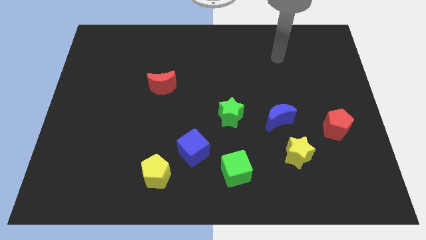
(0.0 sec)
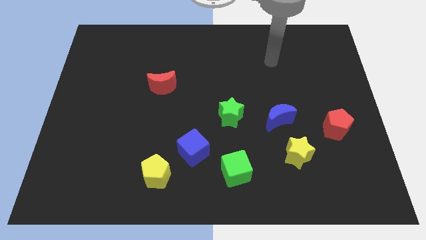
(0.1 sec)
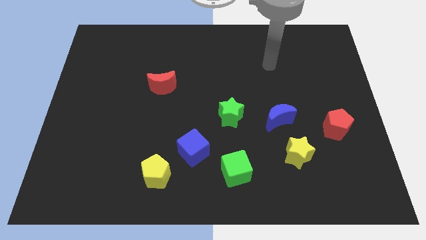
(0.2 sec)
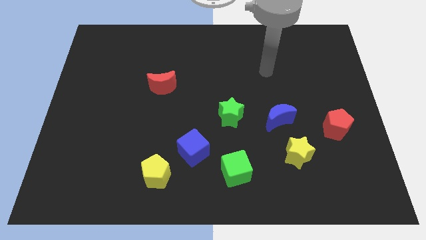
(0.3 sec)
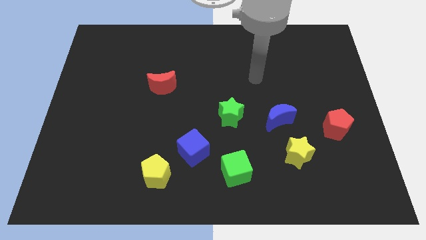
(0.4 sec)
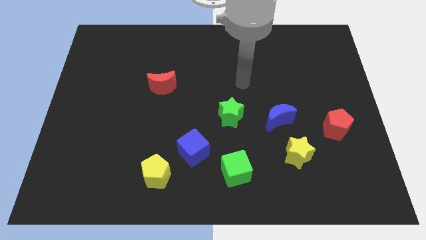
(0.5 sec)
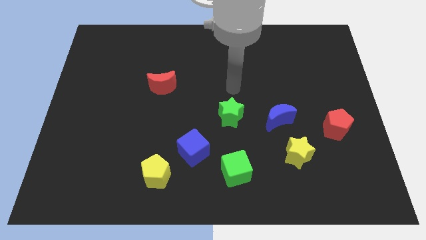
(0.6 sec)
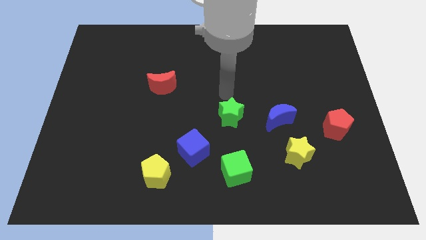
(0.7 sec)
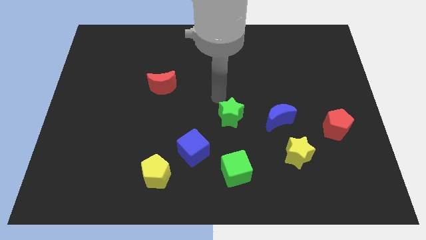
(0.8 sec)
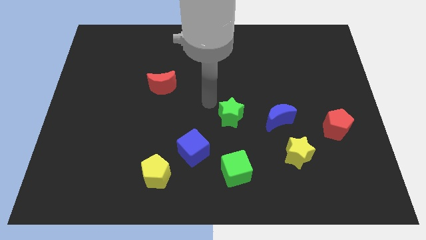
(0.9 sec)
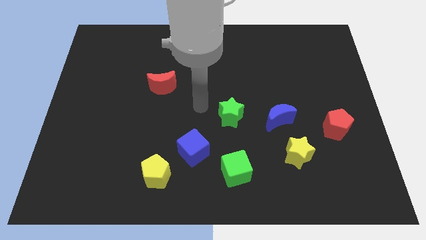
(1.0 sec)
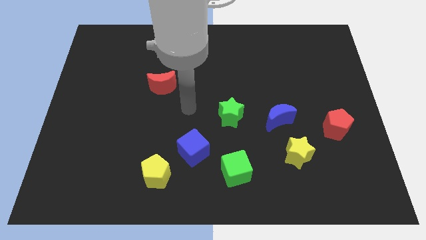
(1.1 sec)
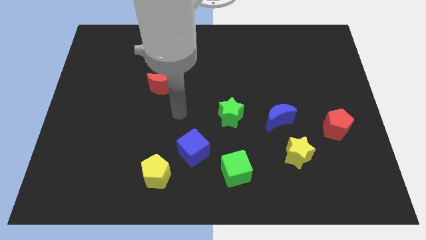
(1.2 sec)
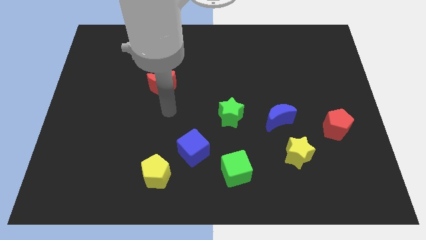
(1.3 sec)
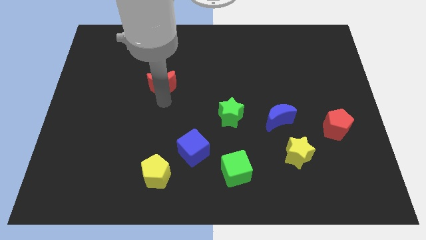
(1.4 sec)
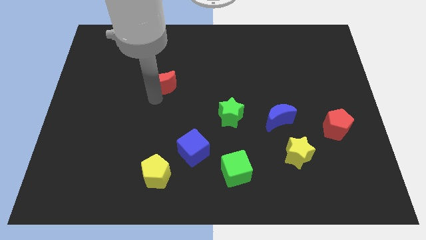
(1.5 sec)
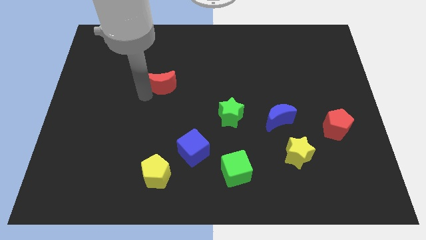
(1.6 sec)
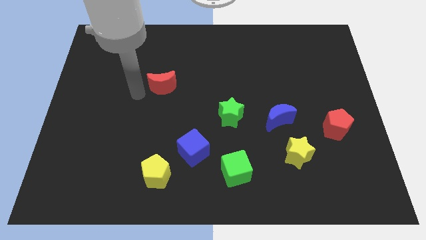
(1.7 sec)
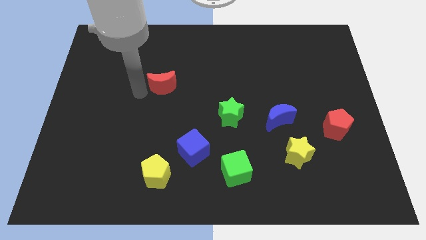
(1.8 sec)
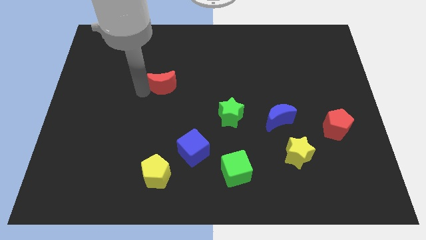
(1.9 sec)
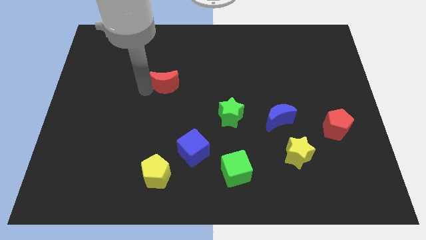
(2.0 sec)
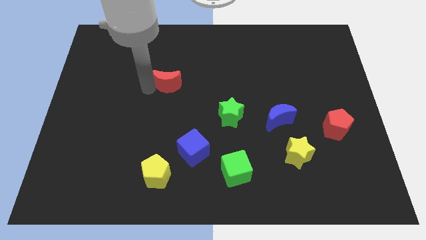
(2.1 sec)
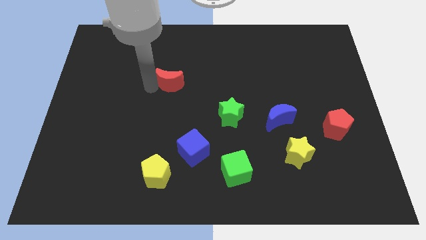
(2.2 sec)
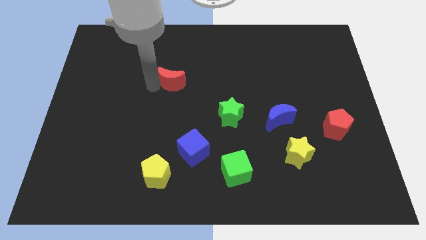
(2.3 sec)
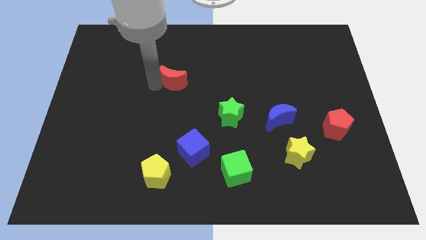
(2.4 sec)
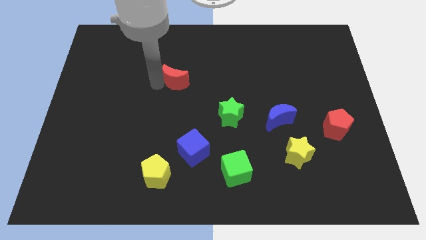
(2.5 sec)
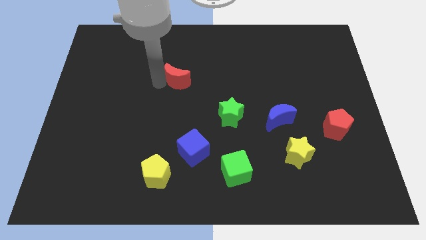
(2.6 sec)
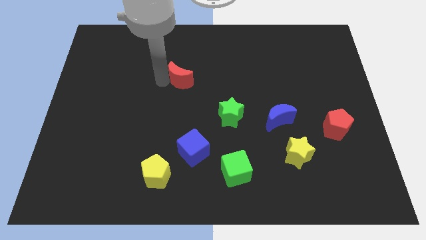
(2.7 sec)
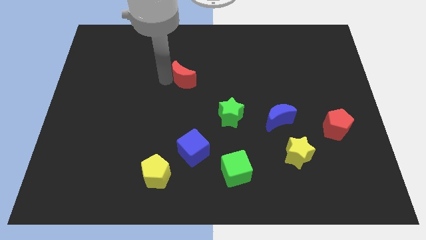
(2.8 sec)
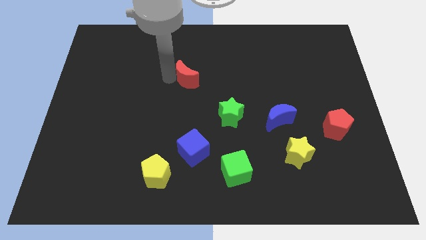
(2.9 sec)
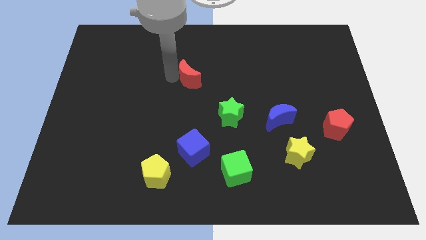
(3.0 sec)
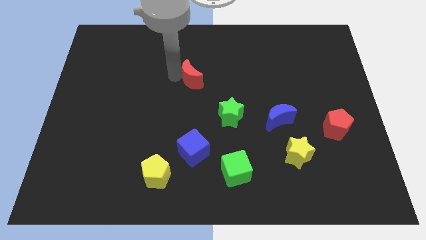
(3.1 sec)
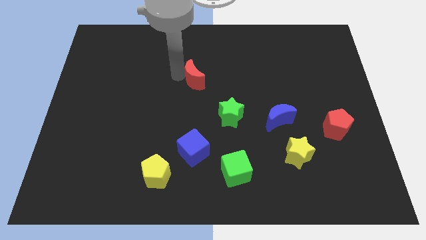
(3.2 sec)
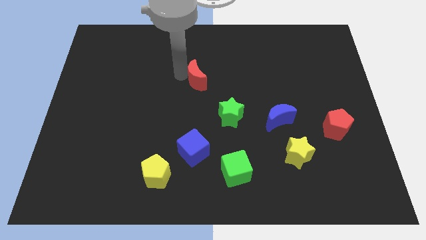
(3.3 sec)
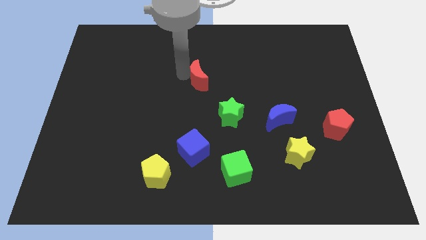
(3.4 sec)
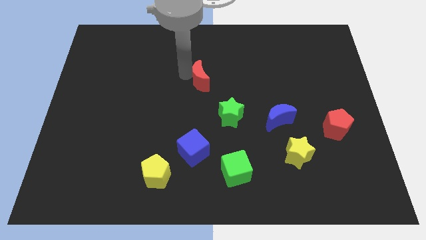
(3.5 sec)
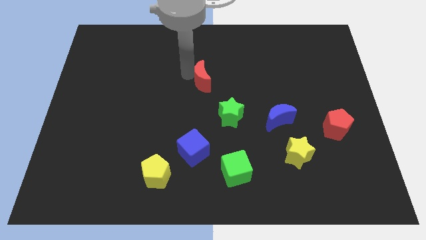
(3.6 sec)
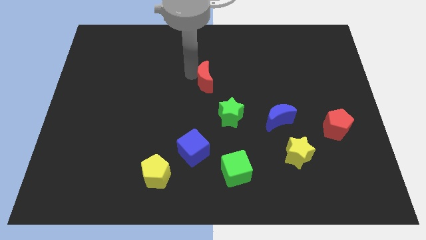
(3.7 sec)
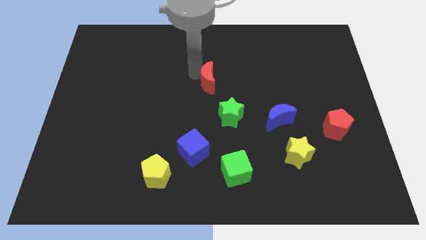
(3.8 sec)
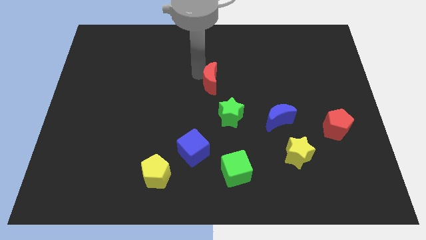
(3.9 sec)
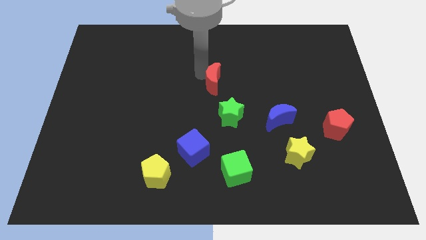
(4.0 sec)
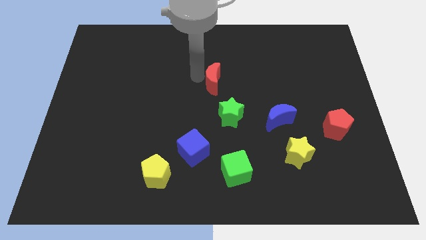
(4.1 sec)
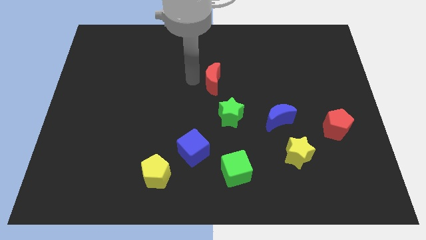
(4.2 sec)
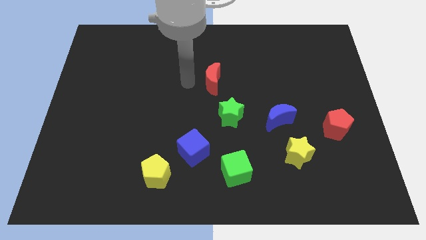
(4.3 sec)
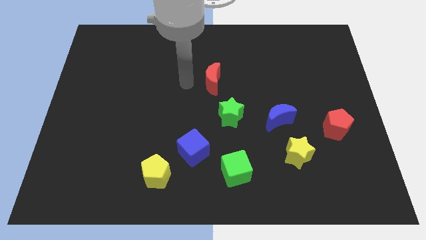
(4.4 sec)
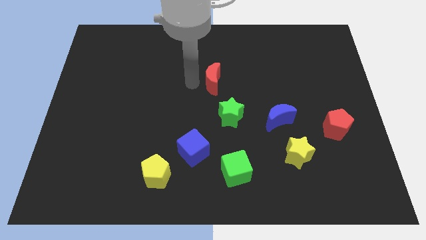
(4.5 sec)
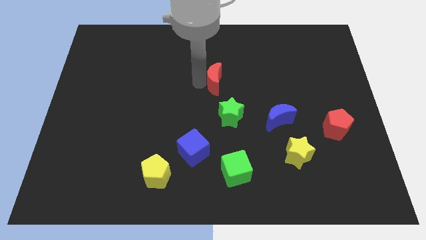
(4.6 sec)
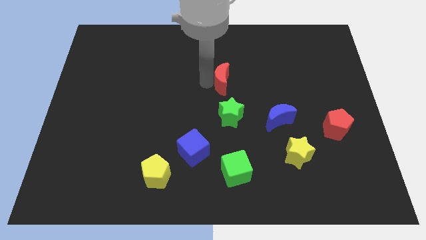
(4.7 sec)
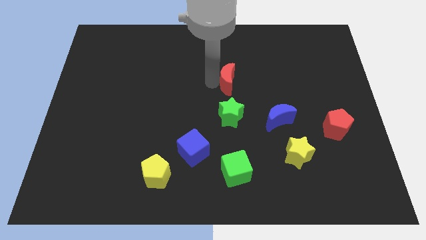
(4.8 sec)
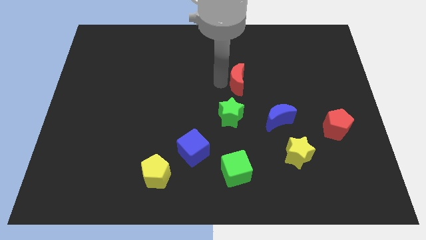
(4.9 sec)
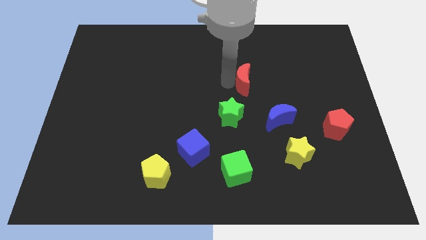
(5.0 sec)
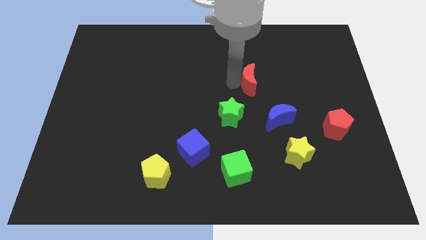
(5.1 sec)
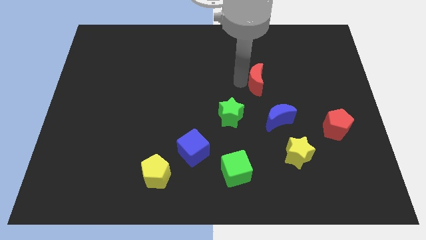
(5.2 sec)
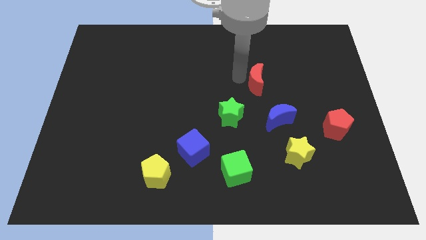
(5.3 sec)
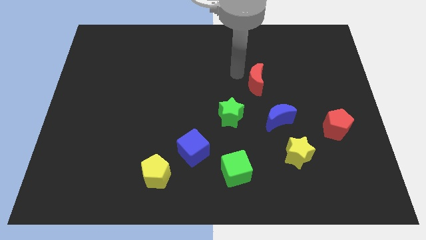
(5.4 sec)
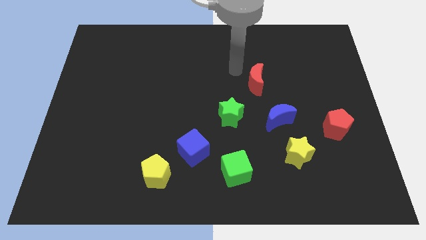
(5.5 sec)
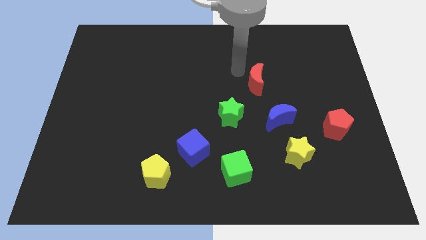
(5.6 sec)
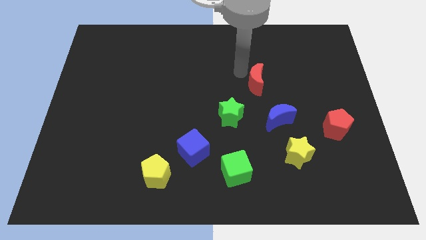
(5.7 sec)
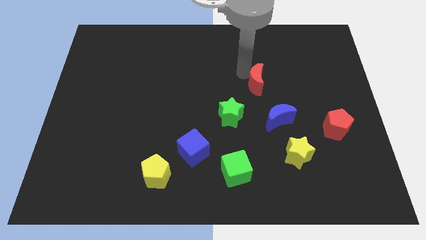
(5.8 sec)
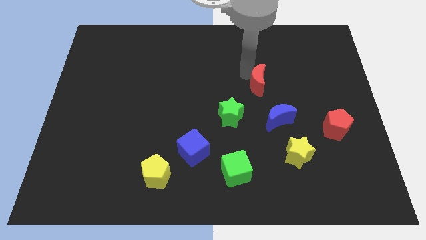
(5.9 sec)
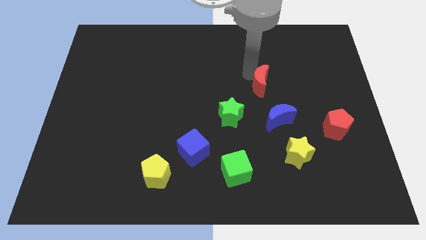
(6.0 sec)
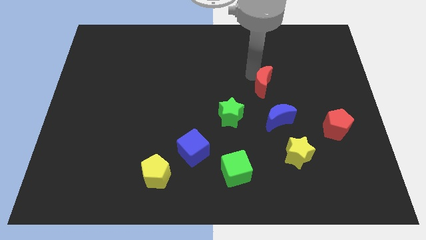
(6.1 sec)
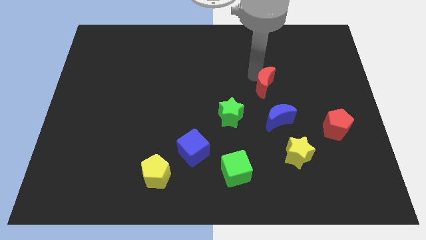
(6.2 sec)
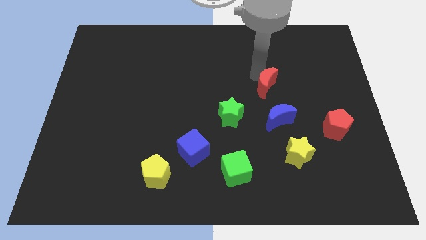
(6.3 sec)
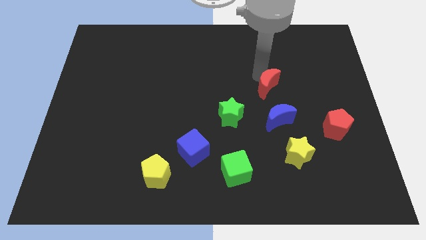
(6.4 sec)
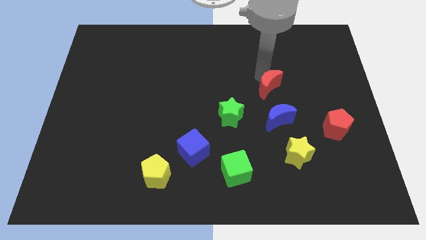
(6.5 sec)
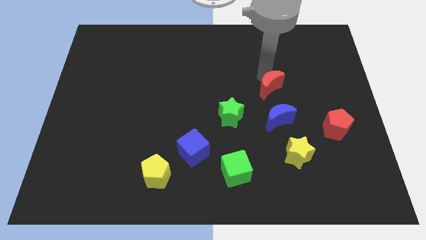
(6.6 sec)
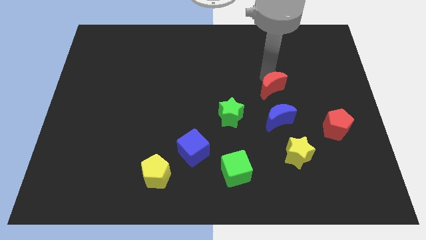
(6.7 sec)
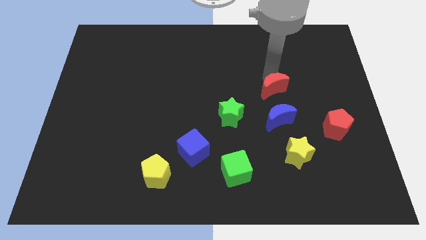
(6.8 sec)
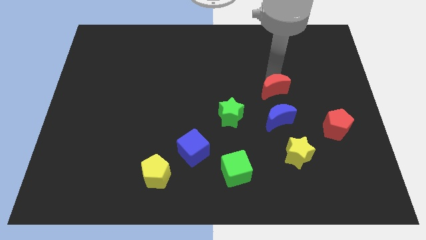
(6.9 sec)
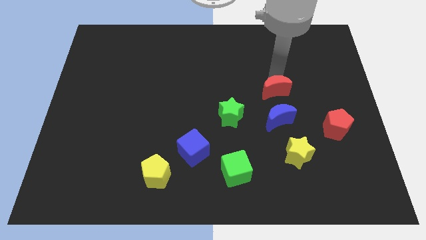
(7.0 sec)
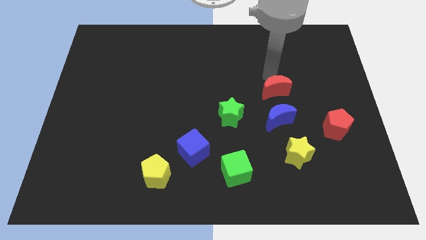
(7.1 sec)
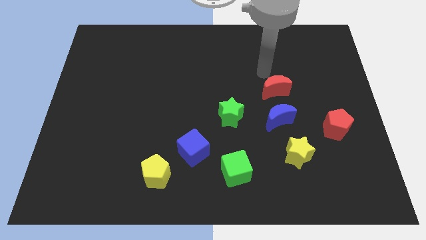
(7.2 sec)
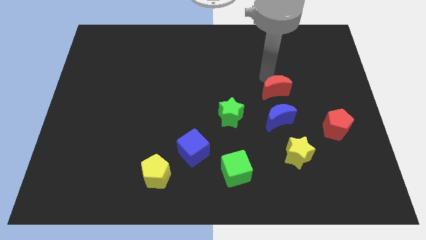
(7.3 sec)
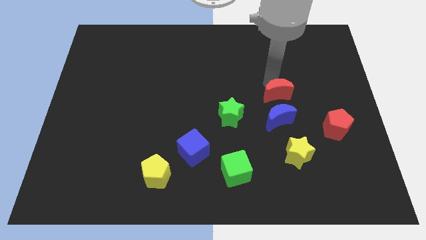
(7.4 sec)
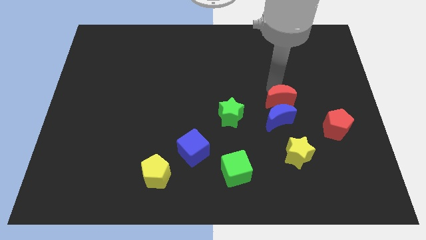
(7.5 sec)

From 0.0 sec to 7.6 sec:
move the red moon above the yellow star
